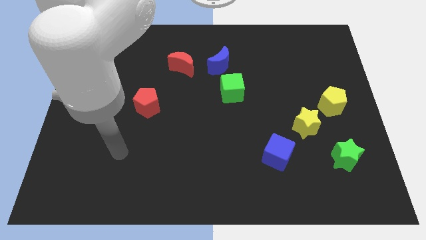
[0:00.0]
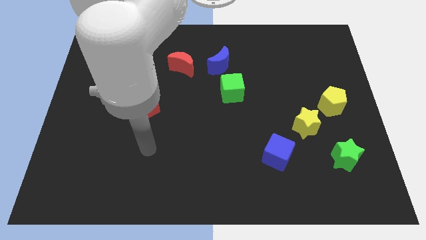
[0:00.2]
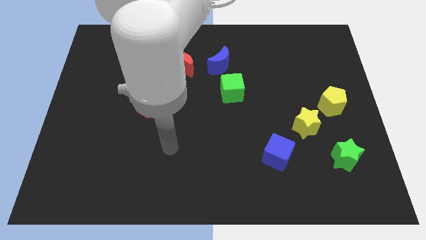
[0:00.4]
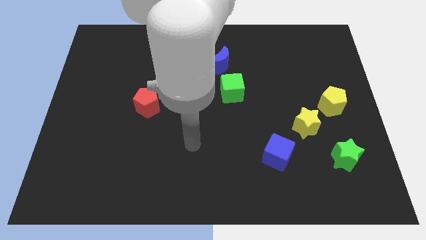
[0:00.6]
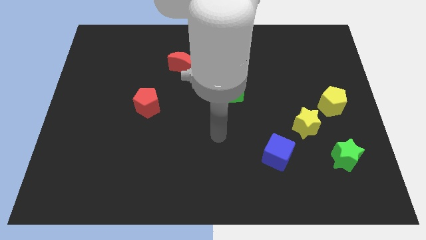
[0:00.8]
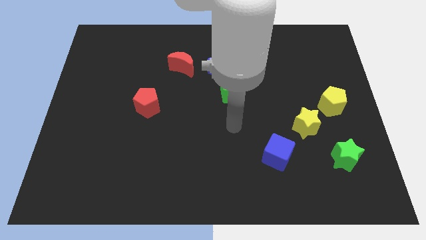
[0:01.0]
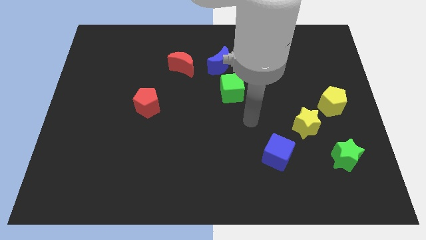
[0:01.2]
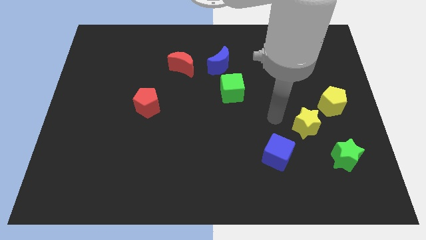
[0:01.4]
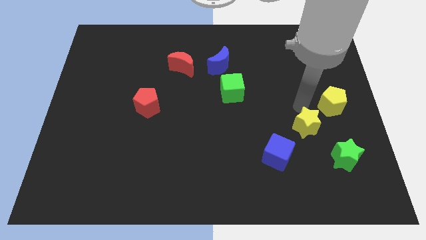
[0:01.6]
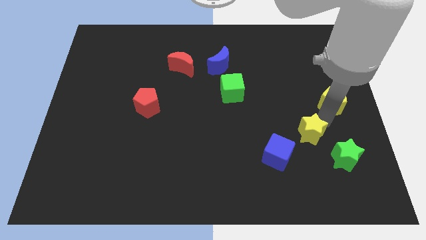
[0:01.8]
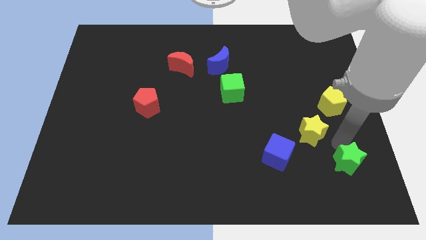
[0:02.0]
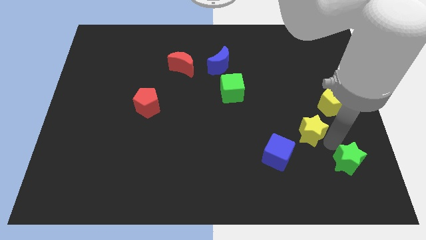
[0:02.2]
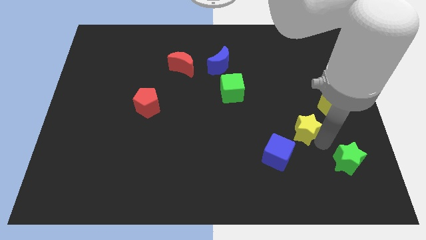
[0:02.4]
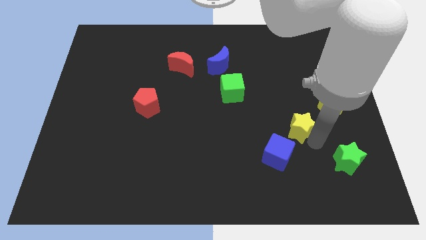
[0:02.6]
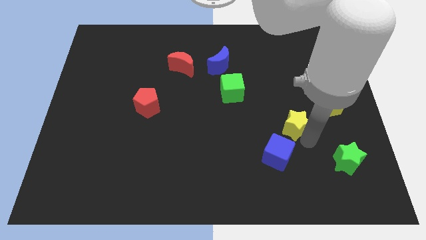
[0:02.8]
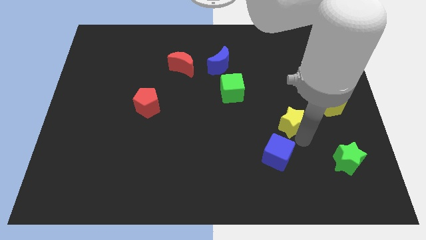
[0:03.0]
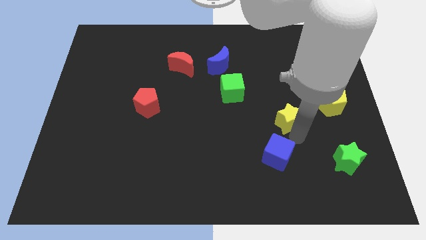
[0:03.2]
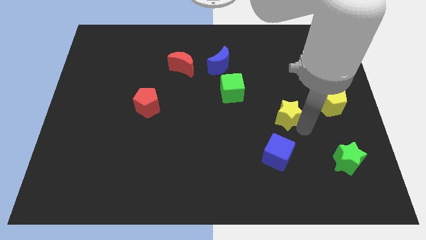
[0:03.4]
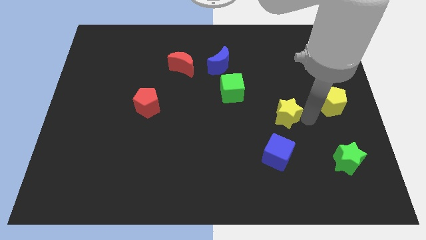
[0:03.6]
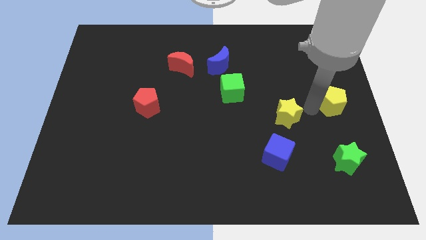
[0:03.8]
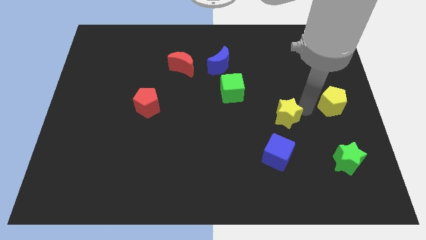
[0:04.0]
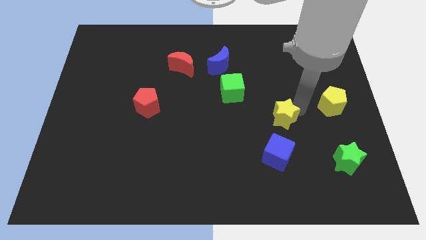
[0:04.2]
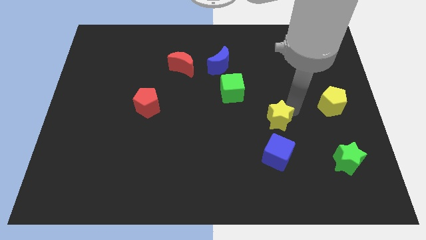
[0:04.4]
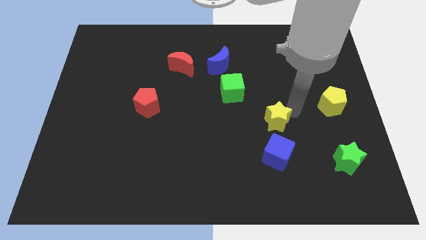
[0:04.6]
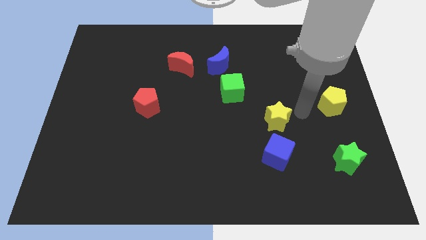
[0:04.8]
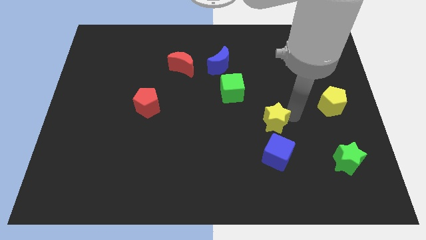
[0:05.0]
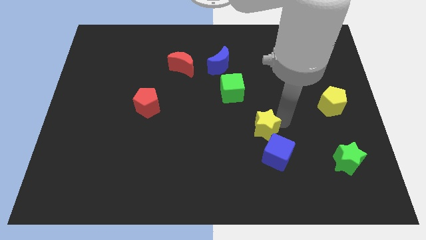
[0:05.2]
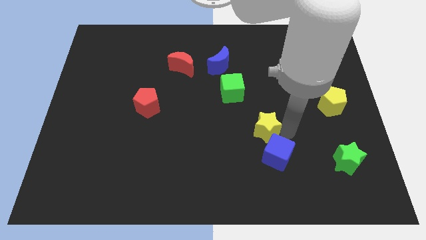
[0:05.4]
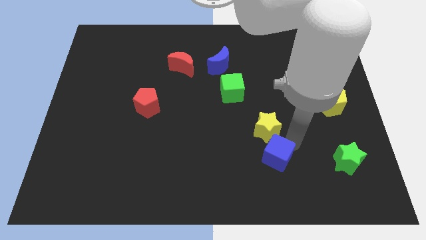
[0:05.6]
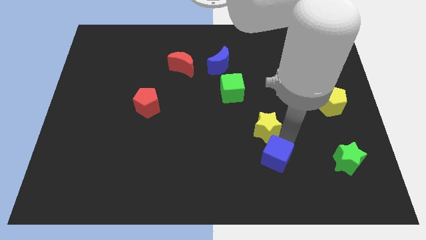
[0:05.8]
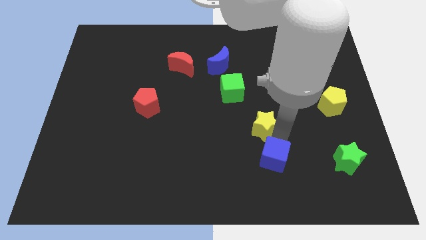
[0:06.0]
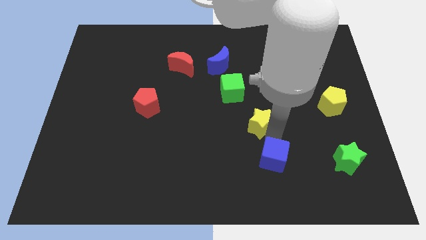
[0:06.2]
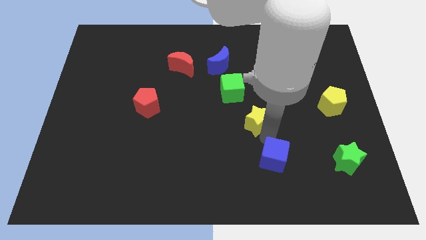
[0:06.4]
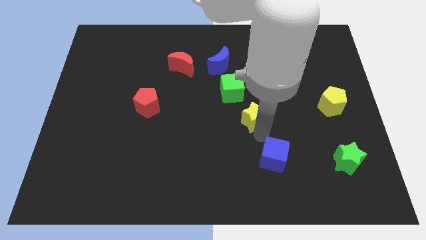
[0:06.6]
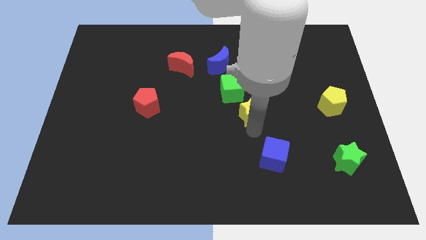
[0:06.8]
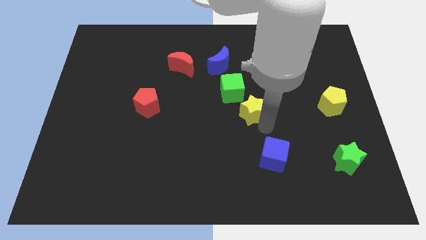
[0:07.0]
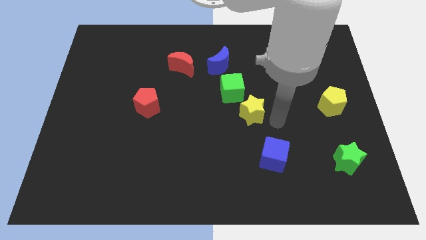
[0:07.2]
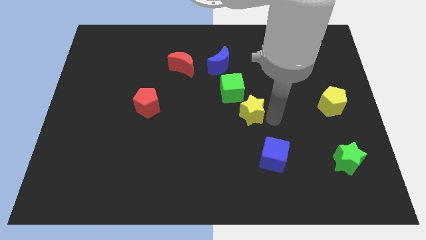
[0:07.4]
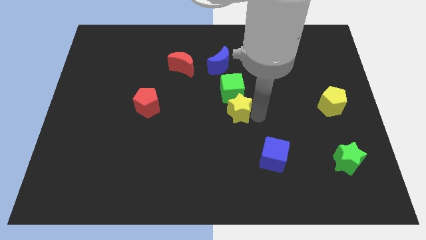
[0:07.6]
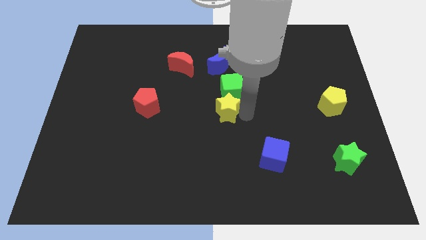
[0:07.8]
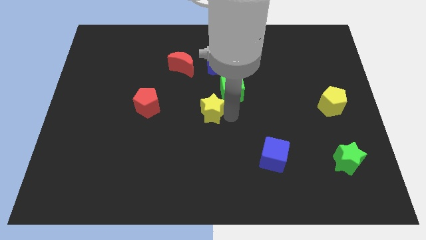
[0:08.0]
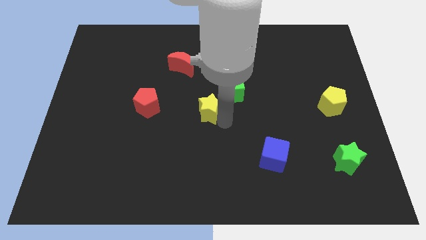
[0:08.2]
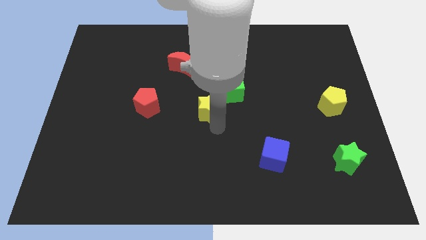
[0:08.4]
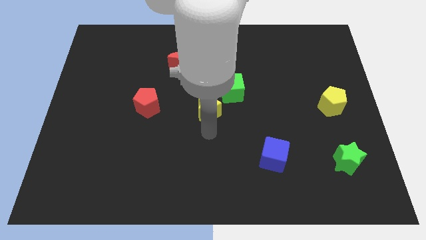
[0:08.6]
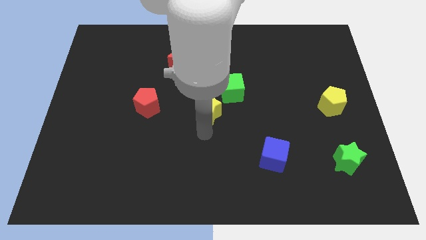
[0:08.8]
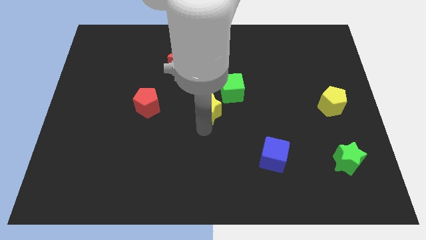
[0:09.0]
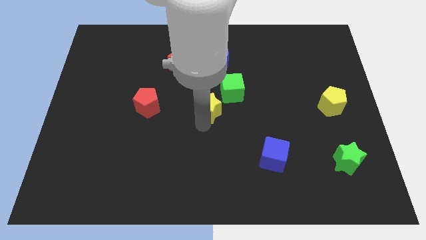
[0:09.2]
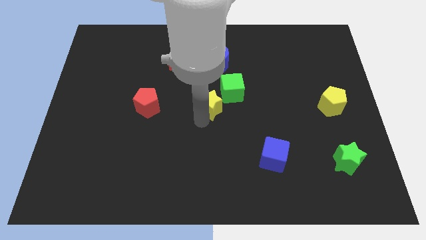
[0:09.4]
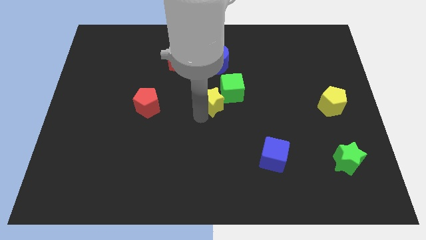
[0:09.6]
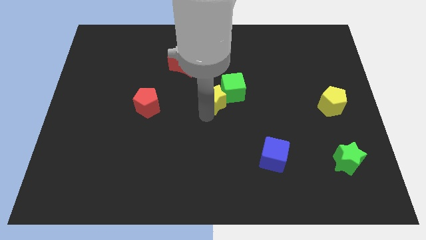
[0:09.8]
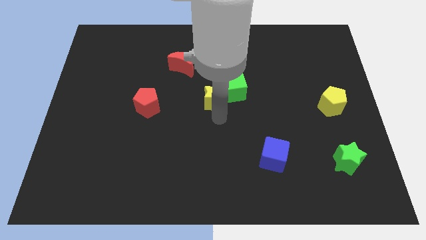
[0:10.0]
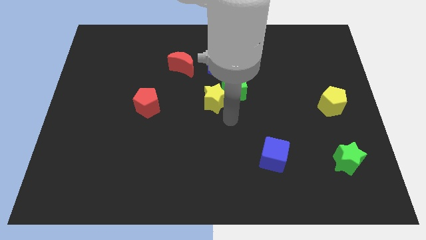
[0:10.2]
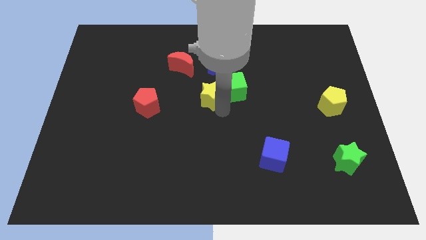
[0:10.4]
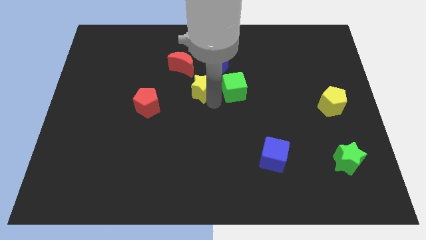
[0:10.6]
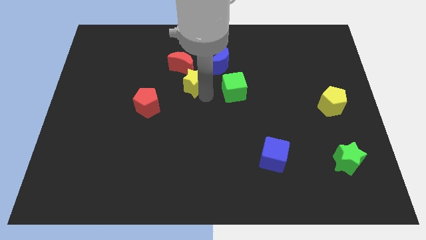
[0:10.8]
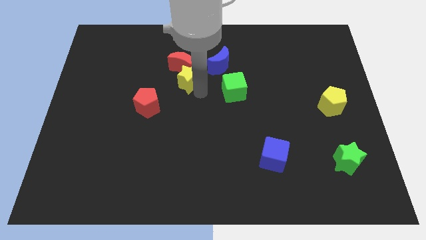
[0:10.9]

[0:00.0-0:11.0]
move the yellow star next to the red moon

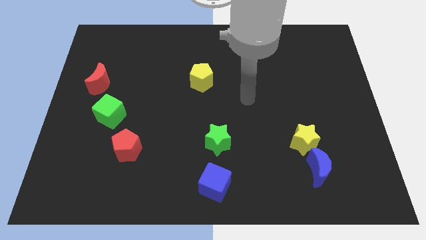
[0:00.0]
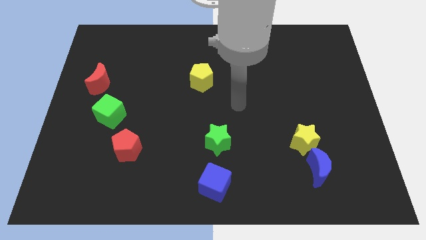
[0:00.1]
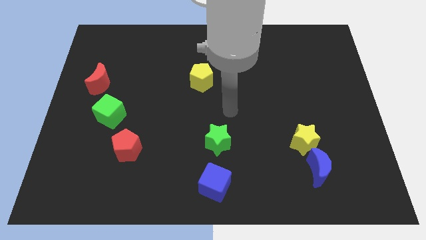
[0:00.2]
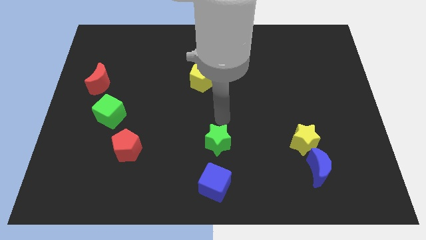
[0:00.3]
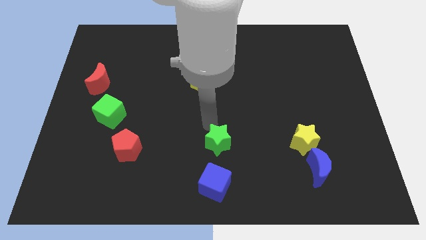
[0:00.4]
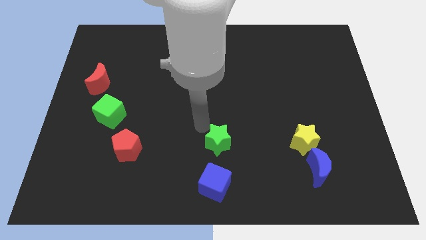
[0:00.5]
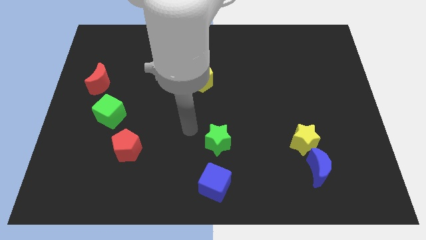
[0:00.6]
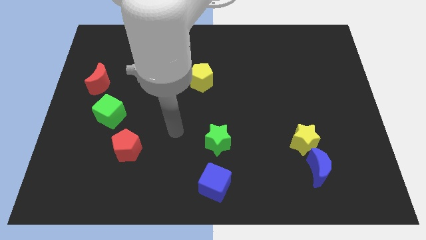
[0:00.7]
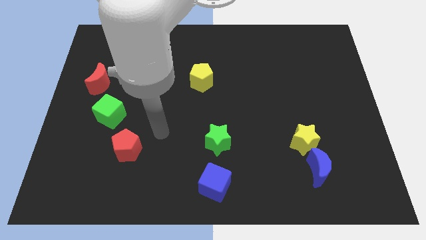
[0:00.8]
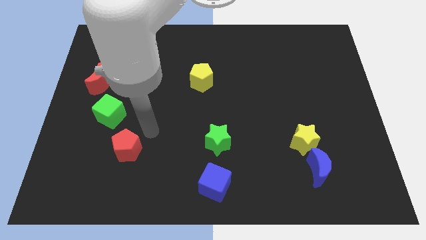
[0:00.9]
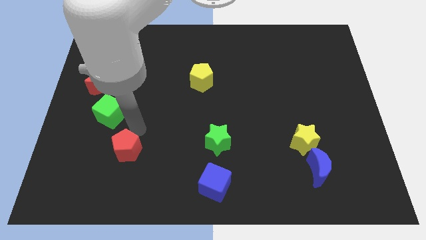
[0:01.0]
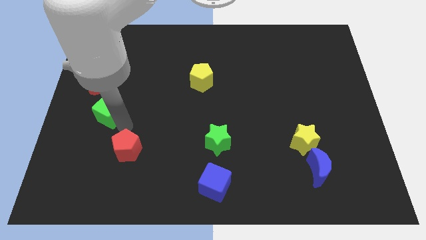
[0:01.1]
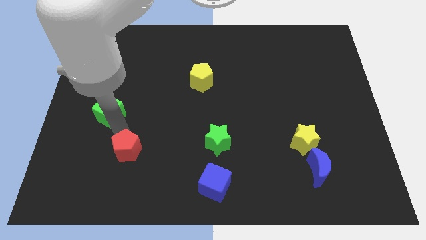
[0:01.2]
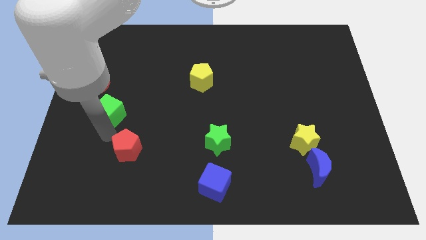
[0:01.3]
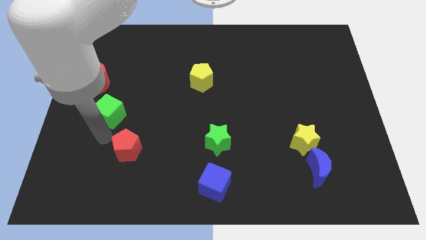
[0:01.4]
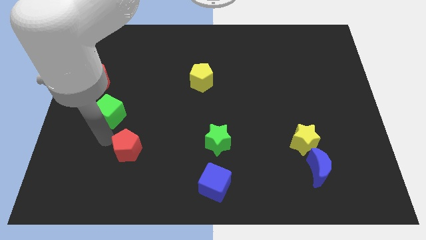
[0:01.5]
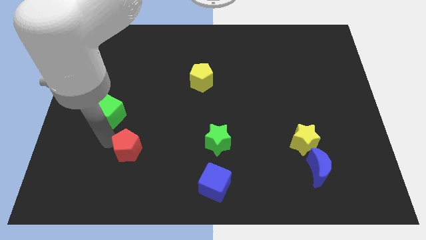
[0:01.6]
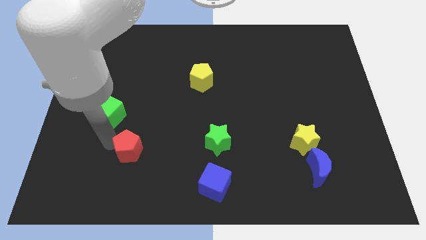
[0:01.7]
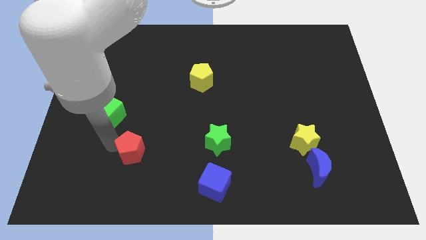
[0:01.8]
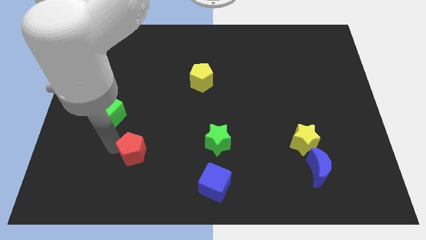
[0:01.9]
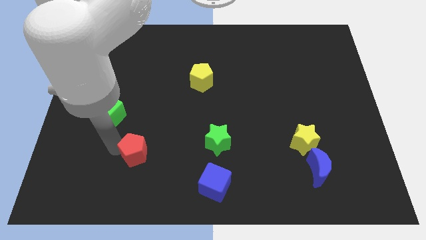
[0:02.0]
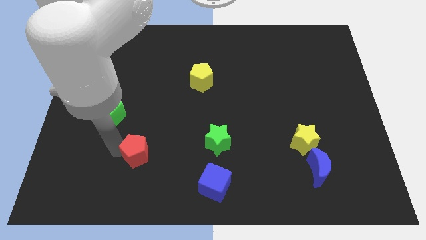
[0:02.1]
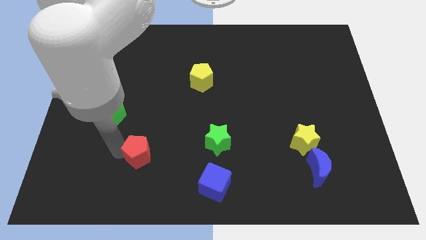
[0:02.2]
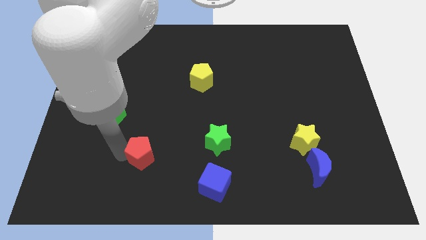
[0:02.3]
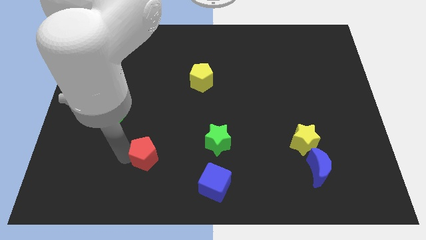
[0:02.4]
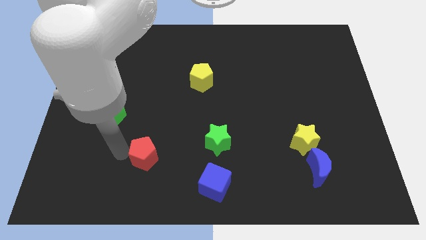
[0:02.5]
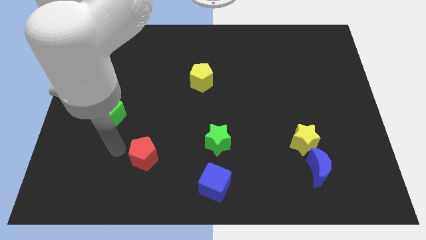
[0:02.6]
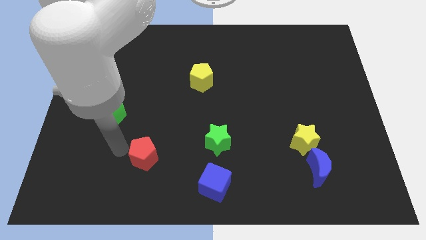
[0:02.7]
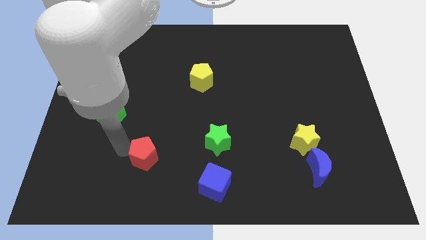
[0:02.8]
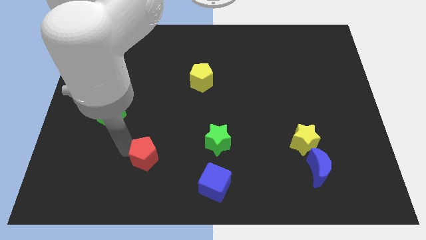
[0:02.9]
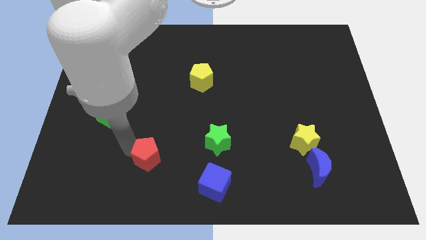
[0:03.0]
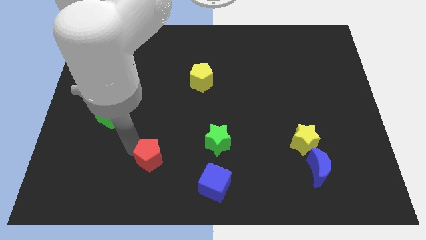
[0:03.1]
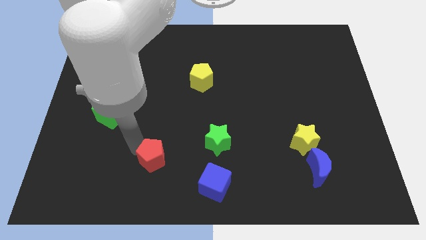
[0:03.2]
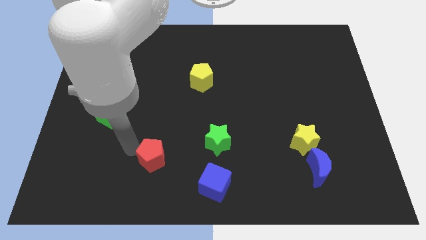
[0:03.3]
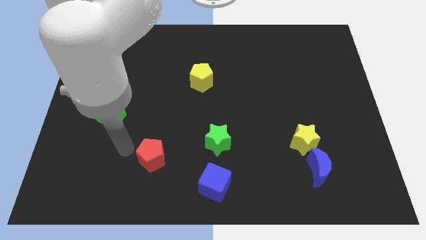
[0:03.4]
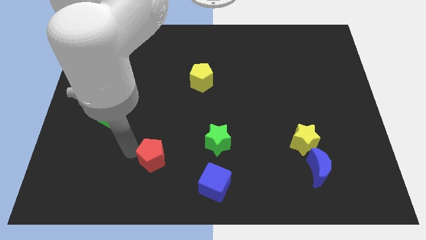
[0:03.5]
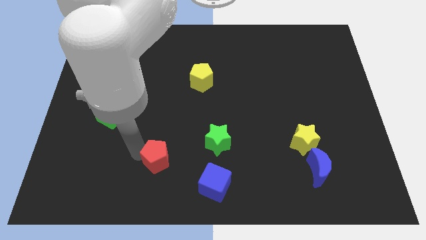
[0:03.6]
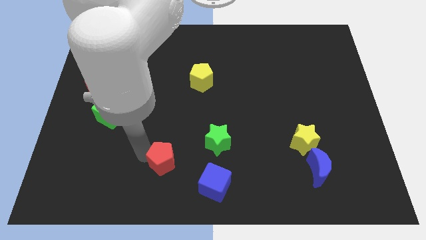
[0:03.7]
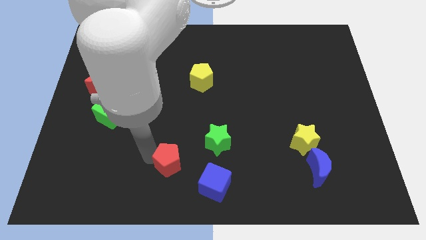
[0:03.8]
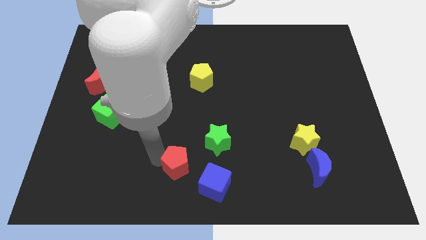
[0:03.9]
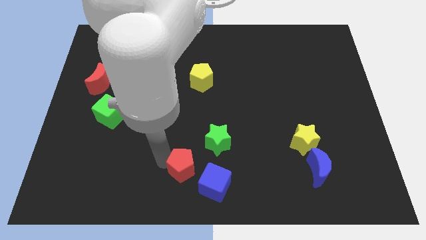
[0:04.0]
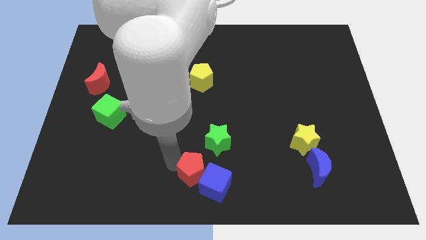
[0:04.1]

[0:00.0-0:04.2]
put the red pentagon close to the blue cube
